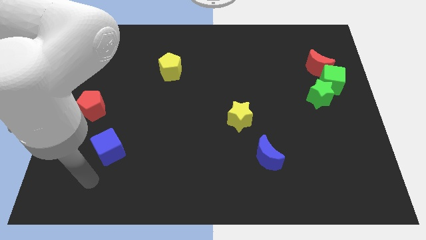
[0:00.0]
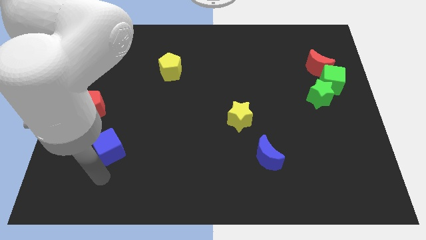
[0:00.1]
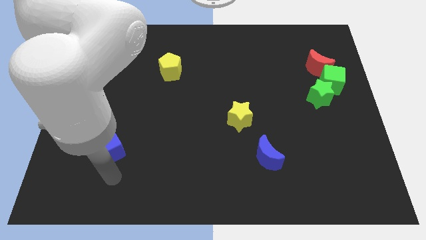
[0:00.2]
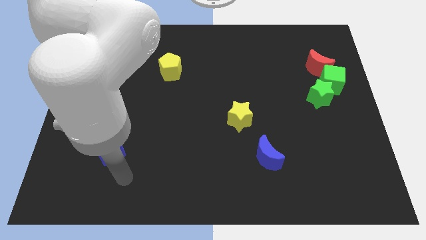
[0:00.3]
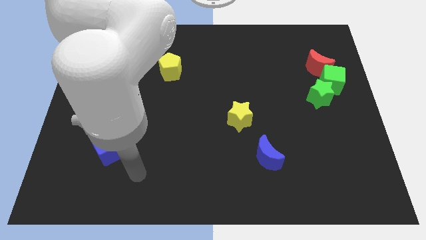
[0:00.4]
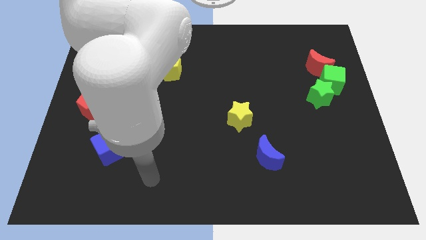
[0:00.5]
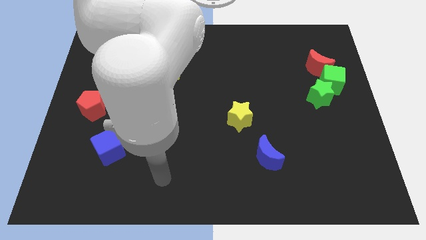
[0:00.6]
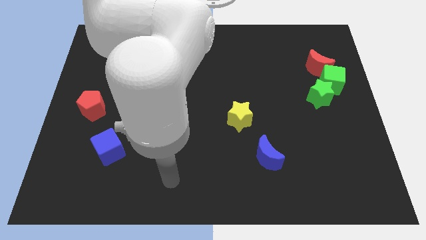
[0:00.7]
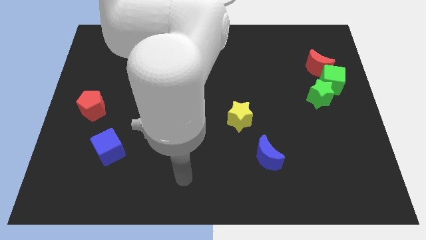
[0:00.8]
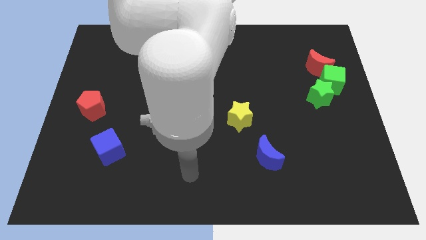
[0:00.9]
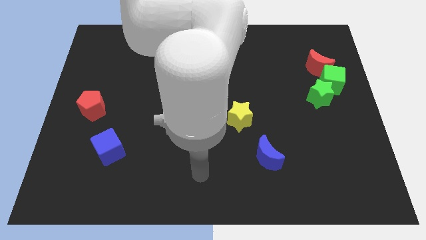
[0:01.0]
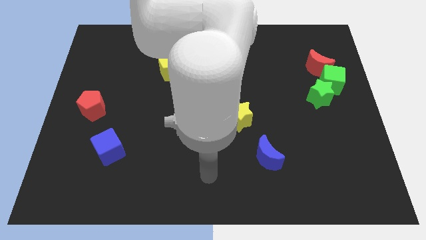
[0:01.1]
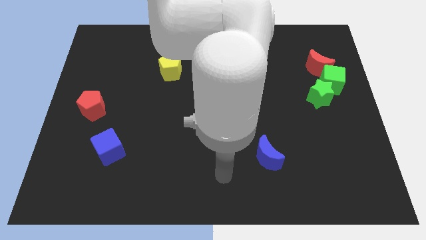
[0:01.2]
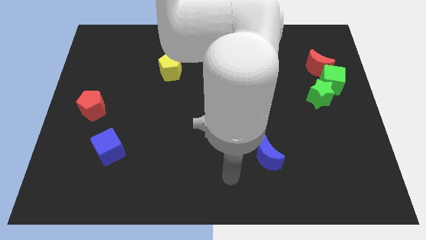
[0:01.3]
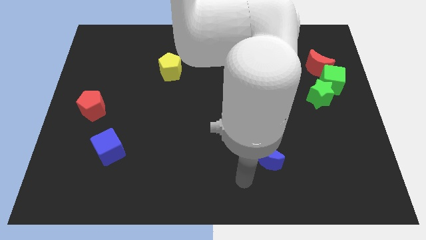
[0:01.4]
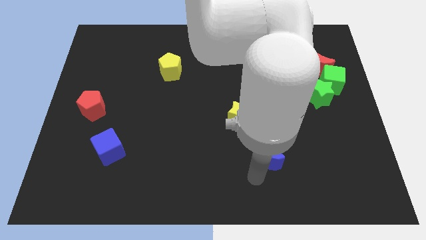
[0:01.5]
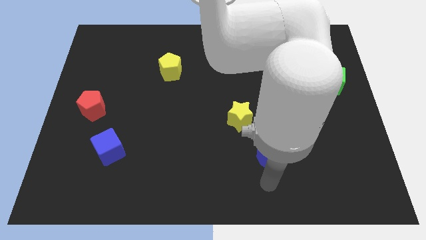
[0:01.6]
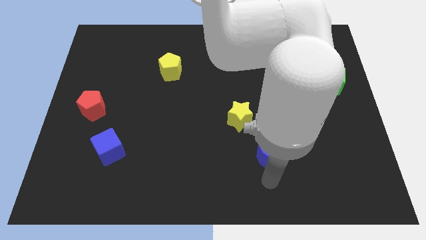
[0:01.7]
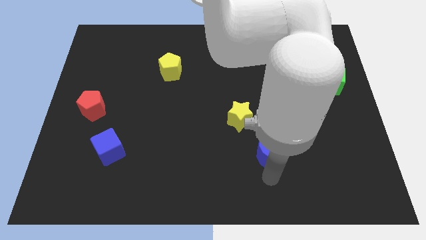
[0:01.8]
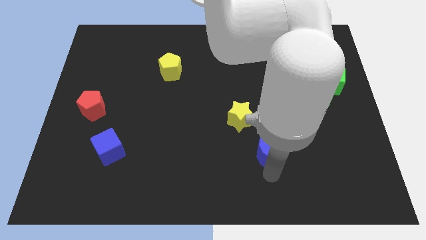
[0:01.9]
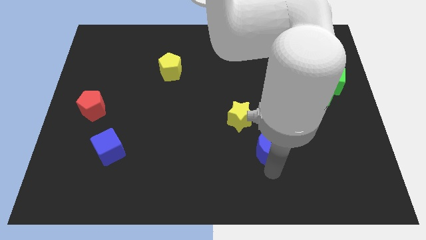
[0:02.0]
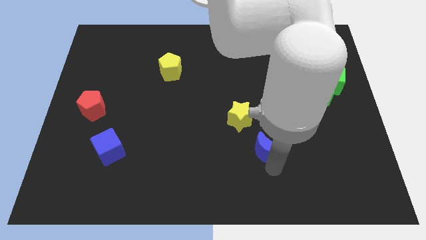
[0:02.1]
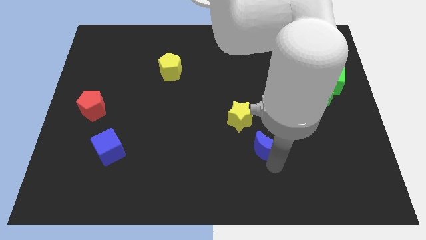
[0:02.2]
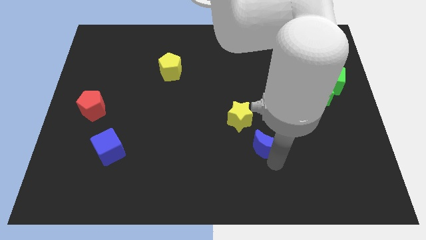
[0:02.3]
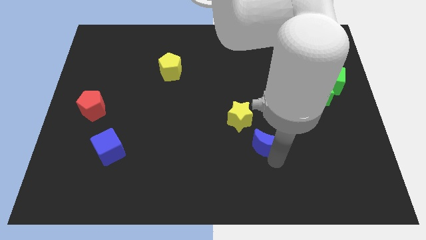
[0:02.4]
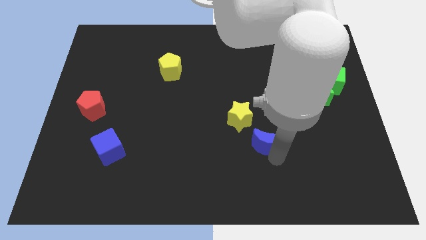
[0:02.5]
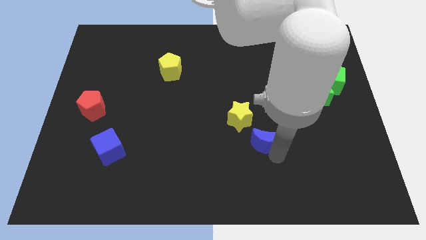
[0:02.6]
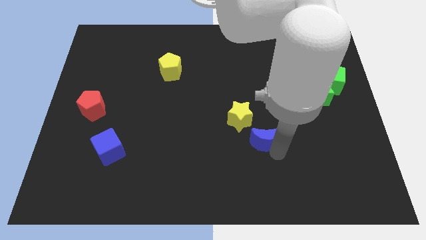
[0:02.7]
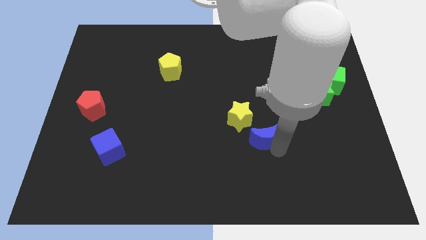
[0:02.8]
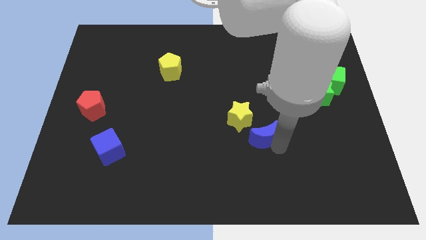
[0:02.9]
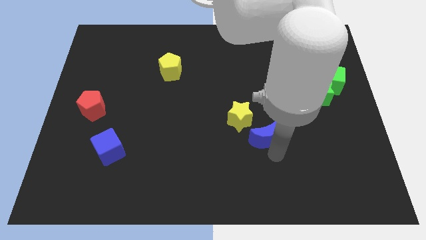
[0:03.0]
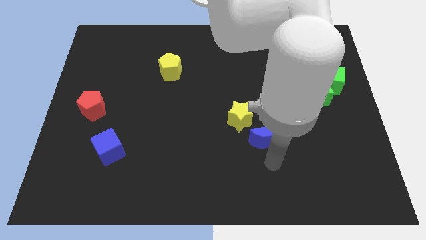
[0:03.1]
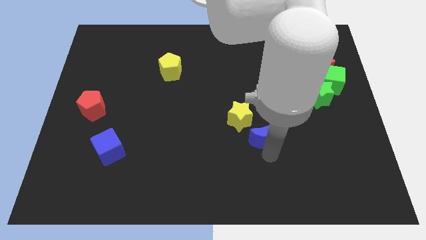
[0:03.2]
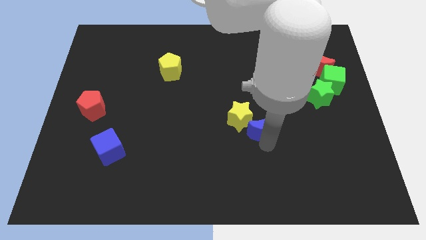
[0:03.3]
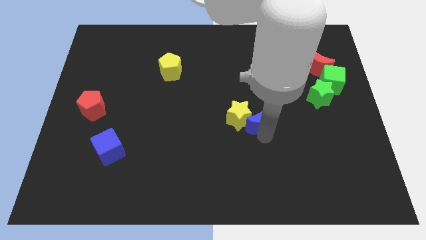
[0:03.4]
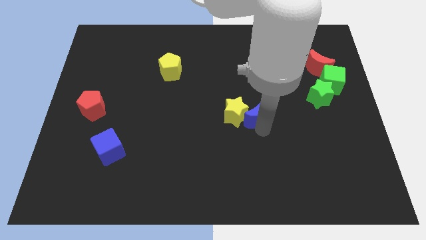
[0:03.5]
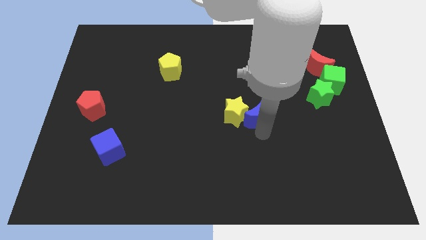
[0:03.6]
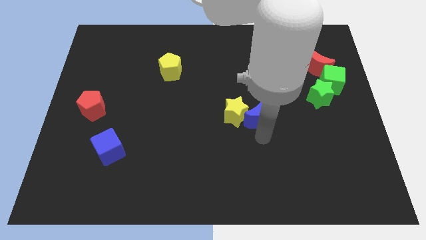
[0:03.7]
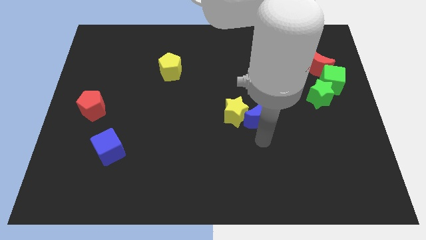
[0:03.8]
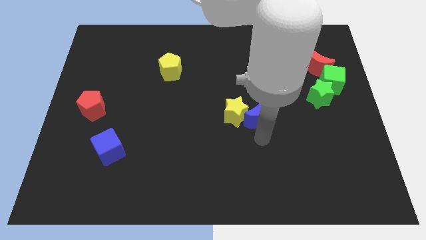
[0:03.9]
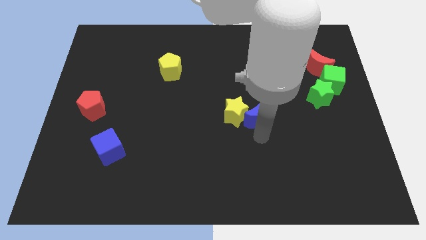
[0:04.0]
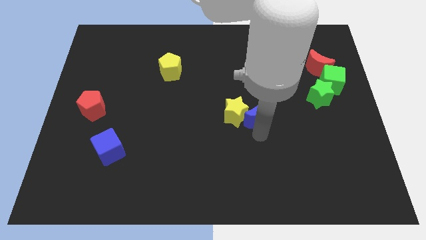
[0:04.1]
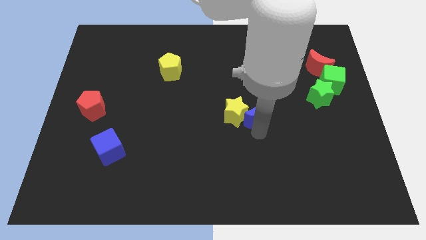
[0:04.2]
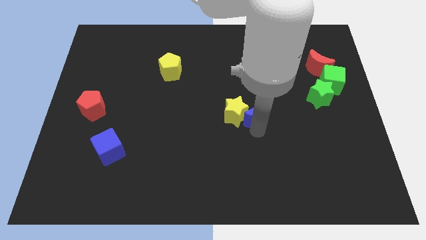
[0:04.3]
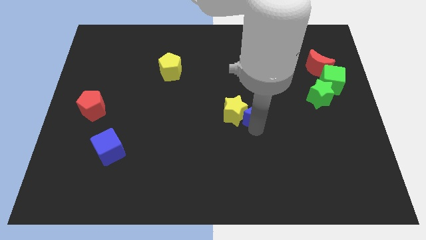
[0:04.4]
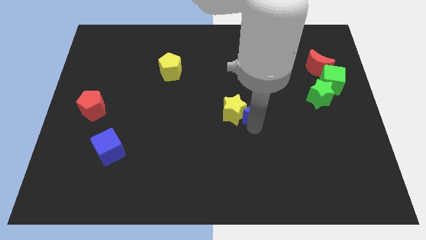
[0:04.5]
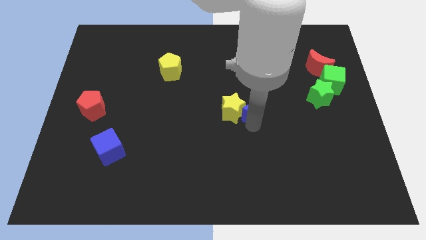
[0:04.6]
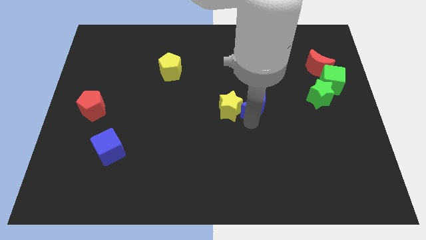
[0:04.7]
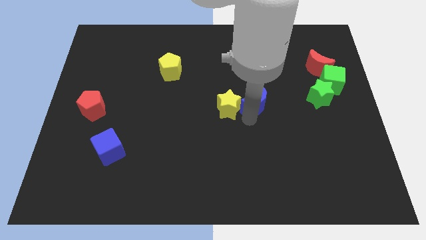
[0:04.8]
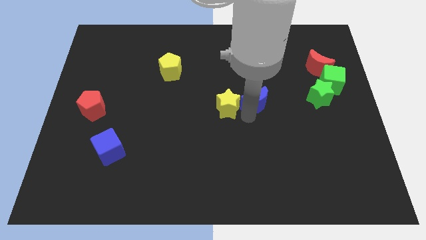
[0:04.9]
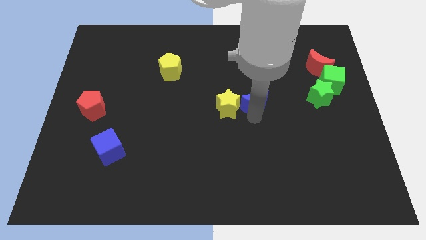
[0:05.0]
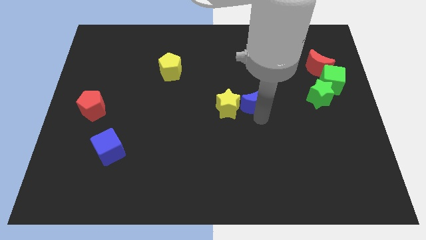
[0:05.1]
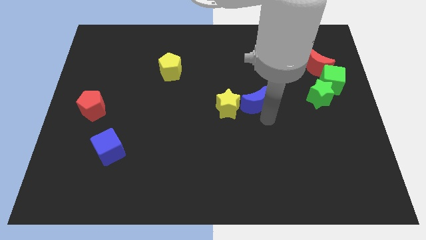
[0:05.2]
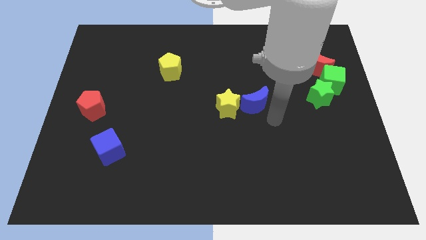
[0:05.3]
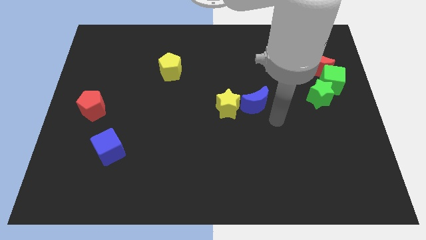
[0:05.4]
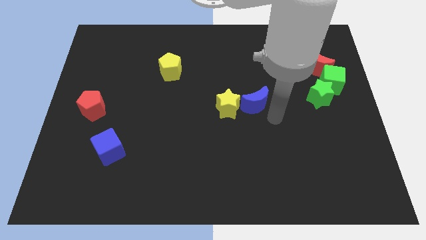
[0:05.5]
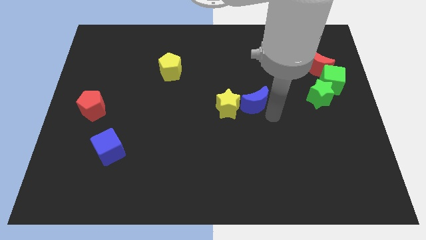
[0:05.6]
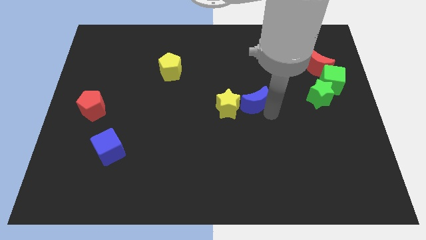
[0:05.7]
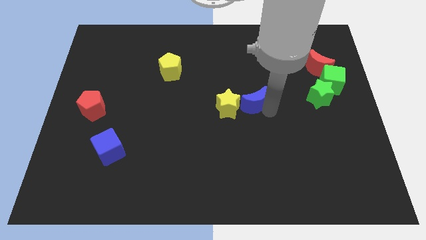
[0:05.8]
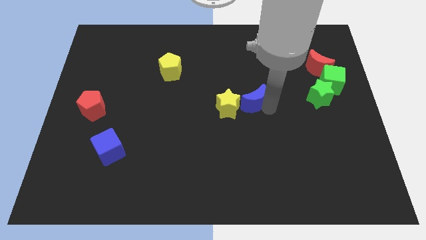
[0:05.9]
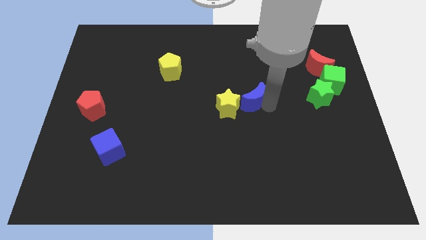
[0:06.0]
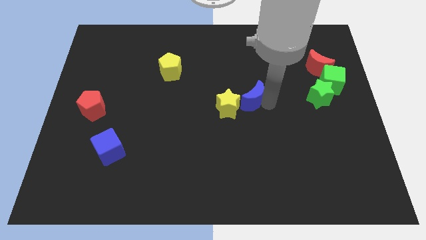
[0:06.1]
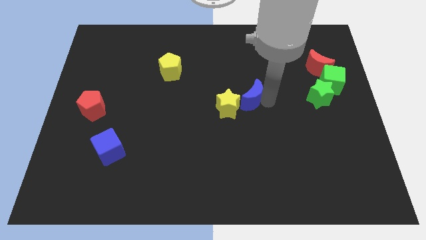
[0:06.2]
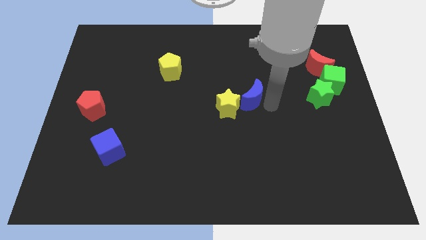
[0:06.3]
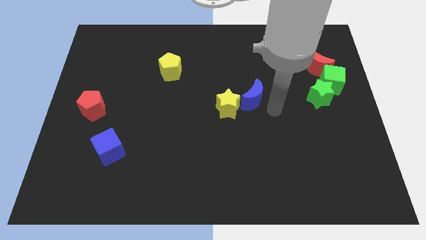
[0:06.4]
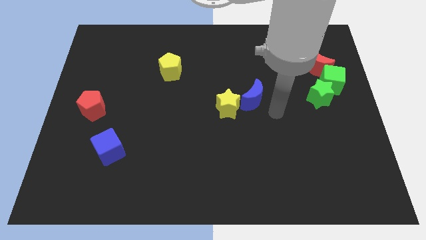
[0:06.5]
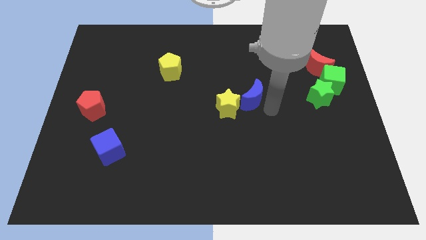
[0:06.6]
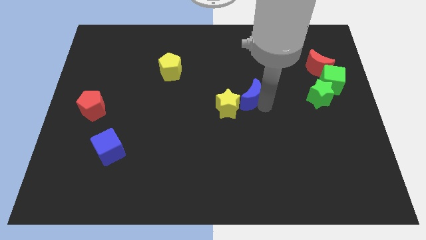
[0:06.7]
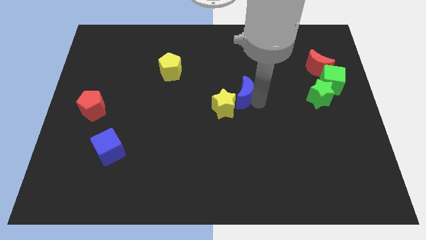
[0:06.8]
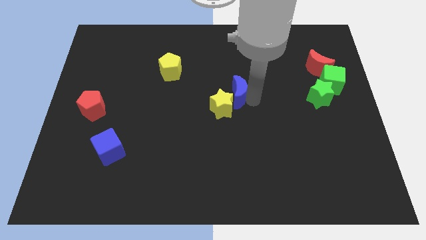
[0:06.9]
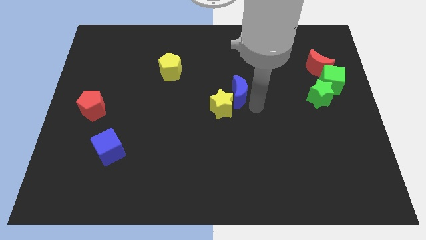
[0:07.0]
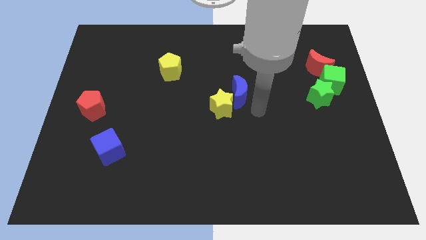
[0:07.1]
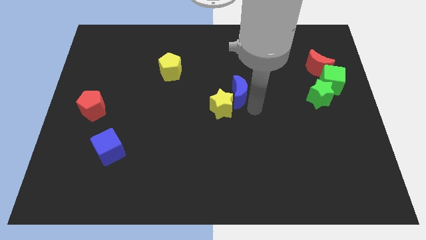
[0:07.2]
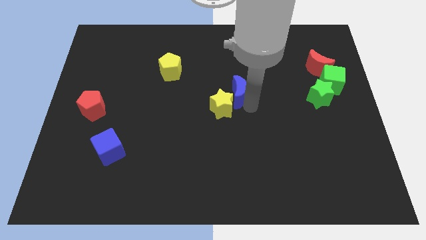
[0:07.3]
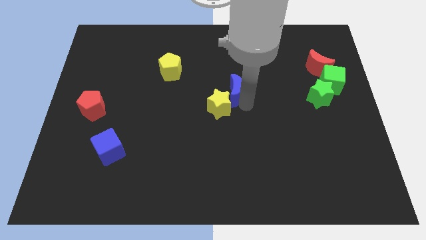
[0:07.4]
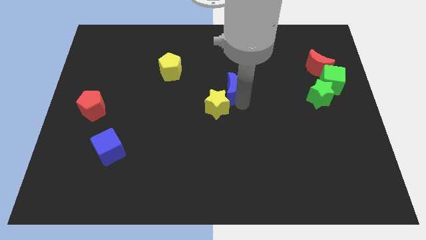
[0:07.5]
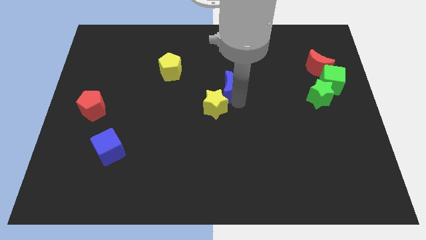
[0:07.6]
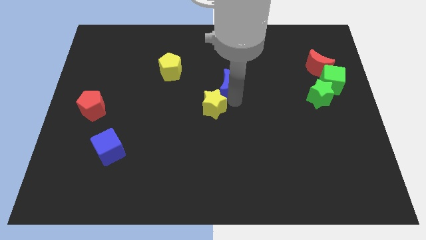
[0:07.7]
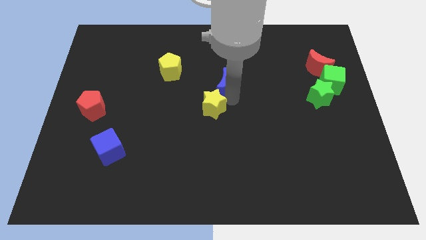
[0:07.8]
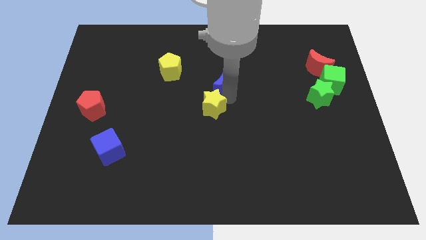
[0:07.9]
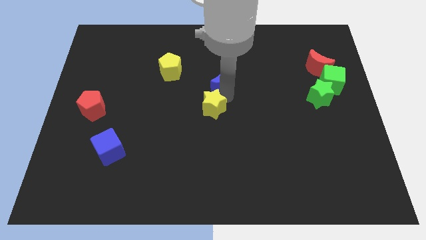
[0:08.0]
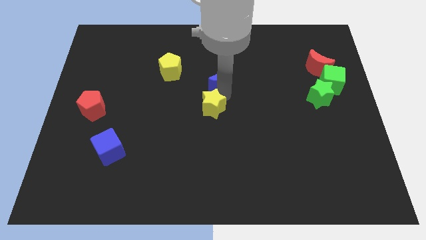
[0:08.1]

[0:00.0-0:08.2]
push the blue moon right of the yellow pentagon
